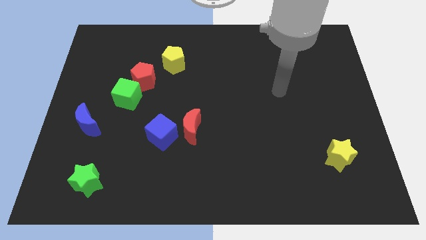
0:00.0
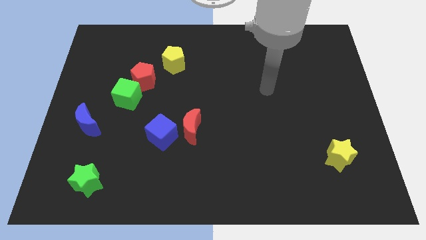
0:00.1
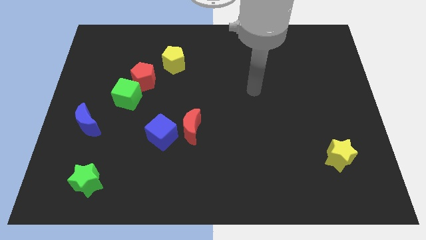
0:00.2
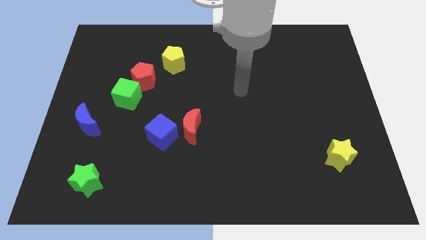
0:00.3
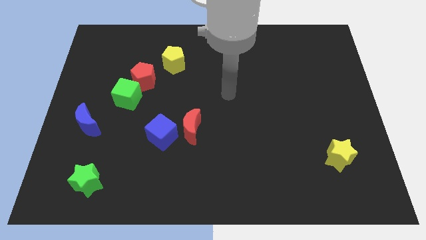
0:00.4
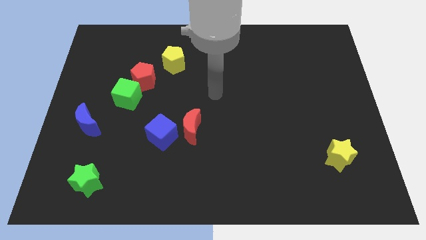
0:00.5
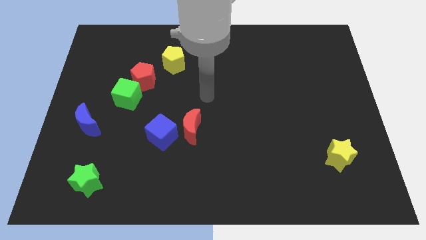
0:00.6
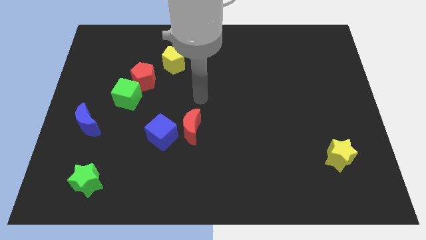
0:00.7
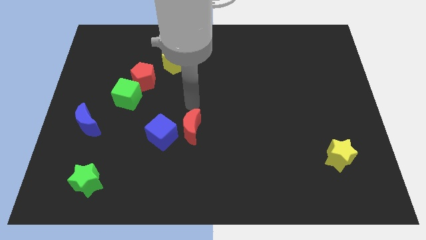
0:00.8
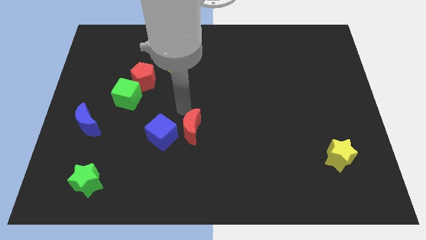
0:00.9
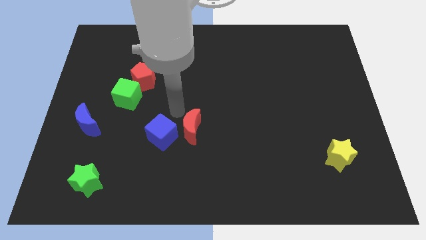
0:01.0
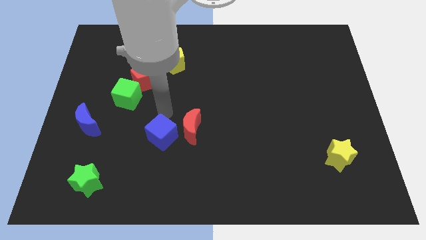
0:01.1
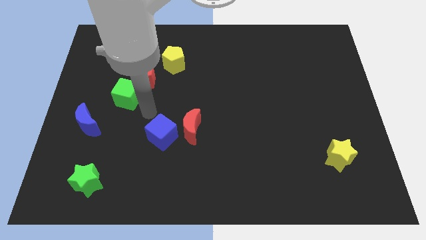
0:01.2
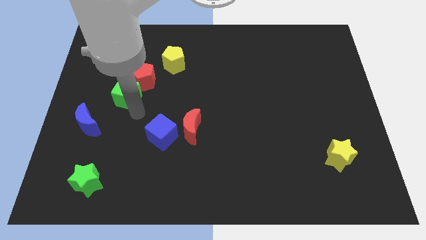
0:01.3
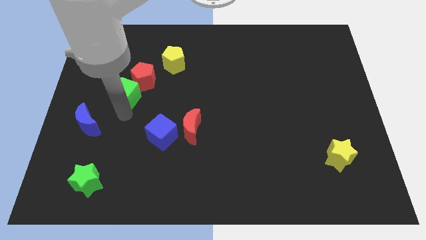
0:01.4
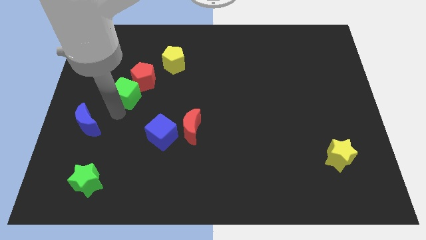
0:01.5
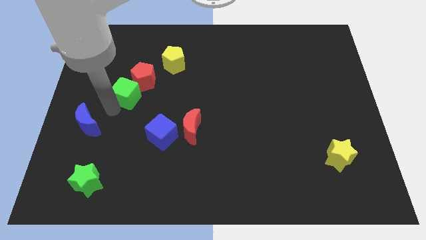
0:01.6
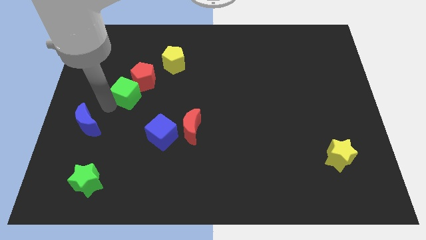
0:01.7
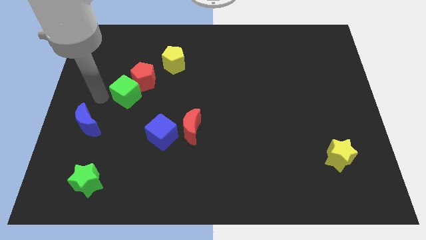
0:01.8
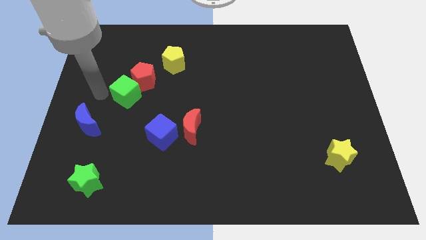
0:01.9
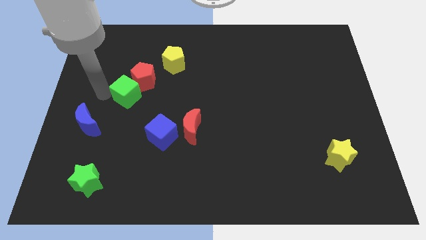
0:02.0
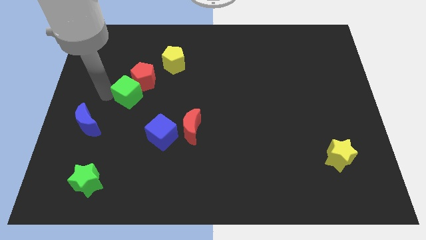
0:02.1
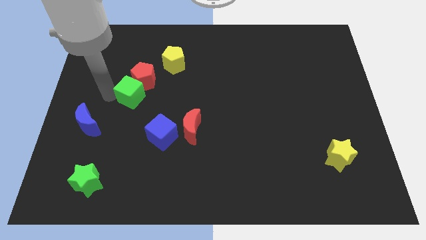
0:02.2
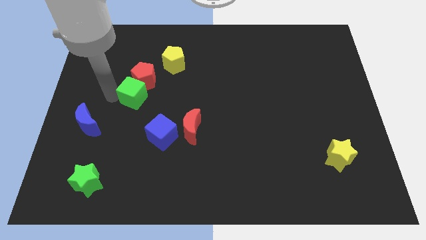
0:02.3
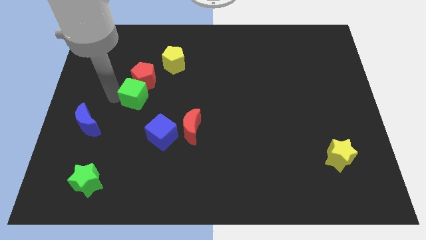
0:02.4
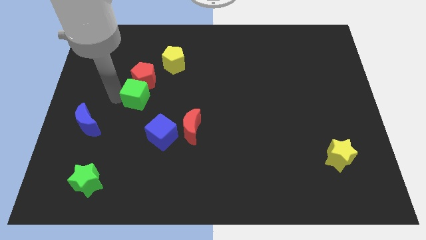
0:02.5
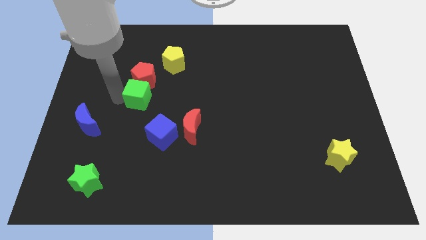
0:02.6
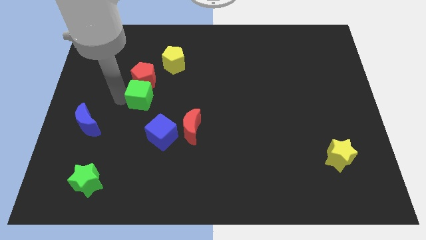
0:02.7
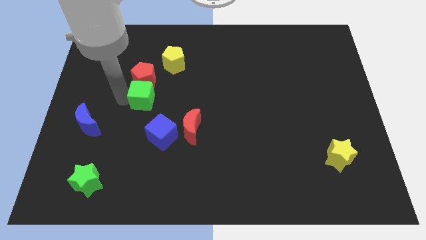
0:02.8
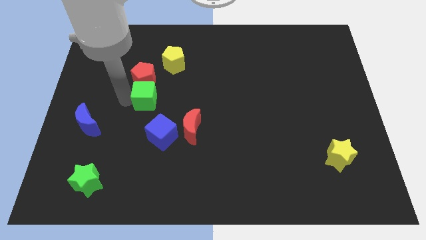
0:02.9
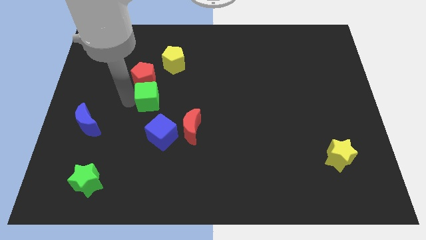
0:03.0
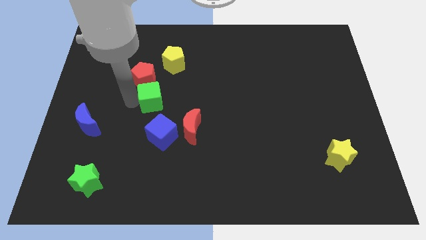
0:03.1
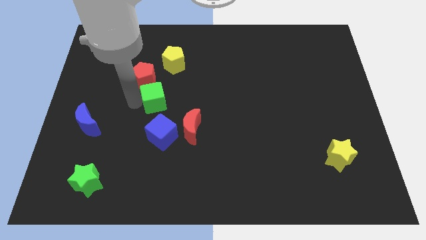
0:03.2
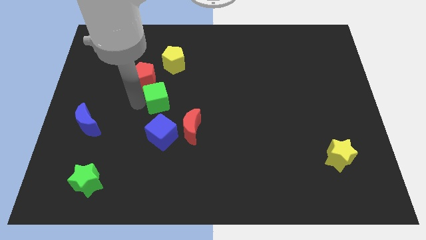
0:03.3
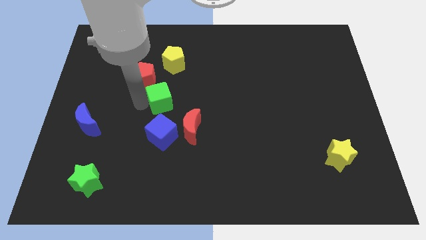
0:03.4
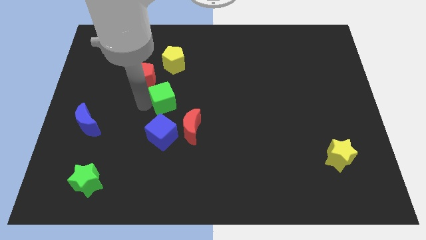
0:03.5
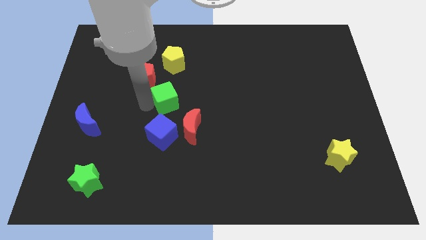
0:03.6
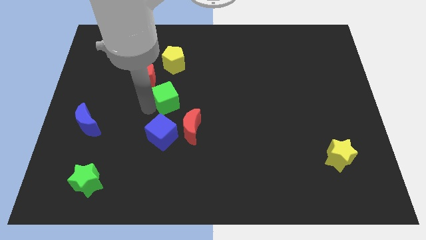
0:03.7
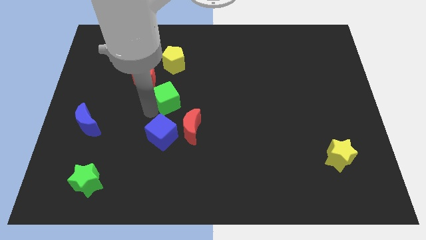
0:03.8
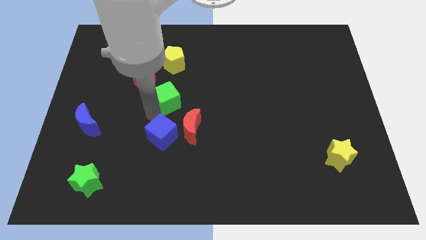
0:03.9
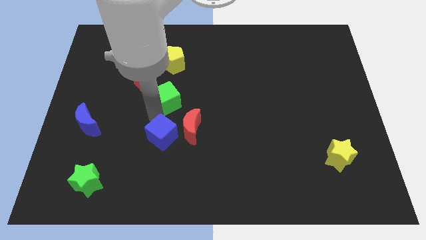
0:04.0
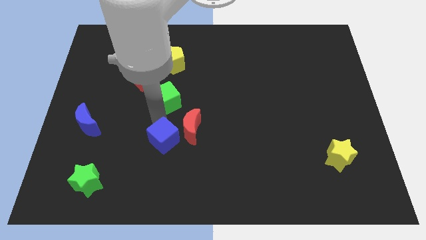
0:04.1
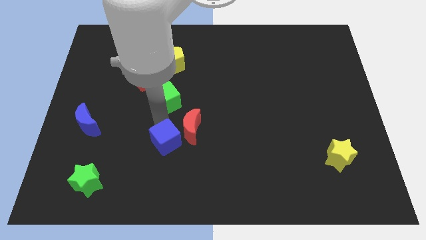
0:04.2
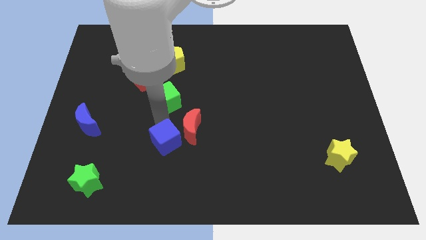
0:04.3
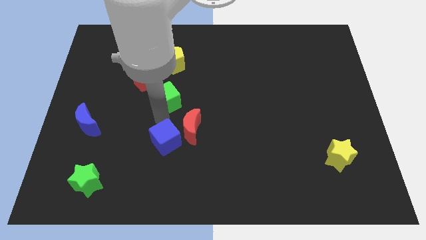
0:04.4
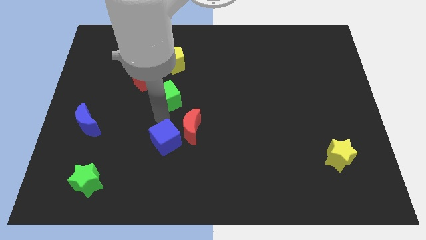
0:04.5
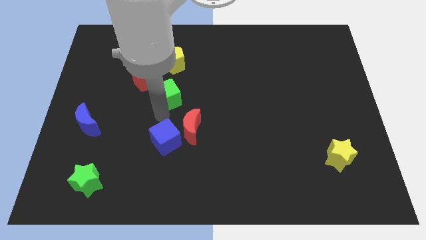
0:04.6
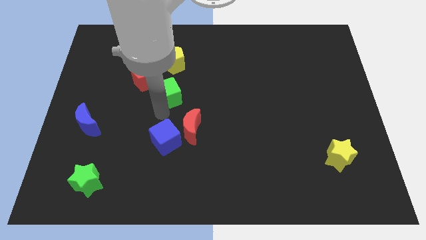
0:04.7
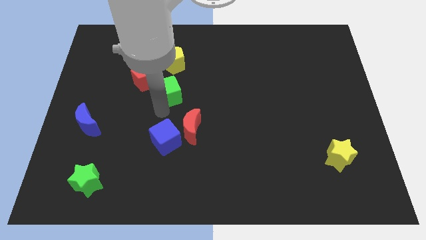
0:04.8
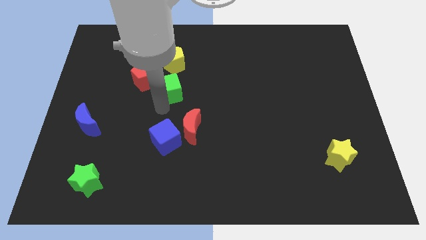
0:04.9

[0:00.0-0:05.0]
slightly push the green cube up and then right

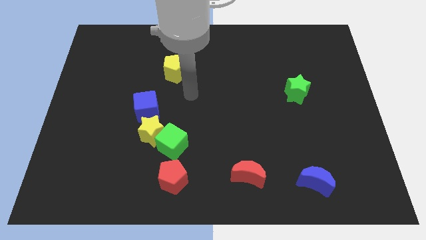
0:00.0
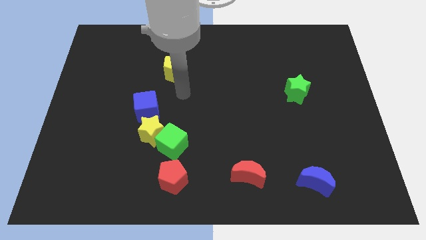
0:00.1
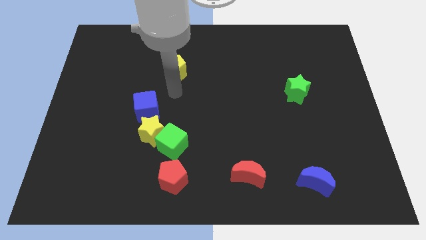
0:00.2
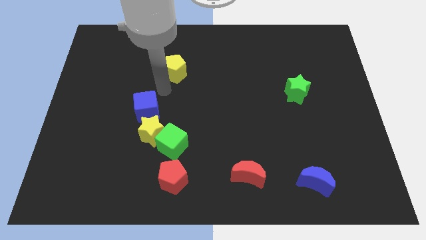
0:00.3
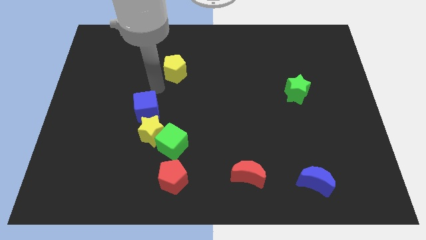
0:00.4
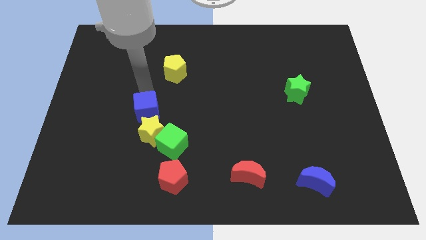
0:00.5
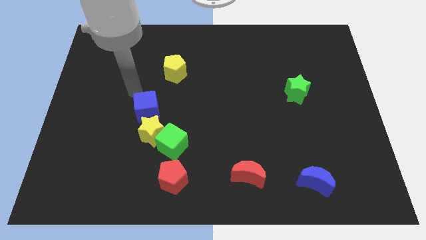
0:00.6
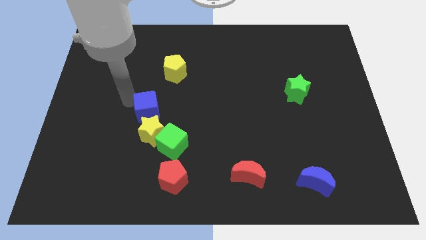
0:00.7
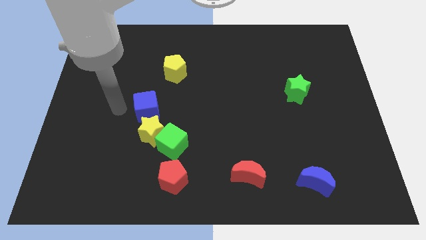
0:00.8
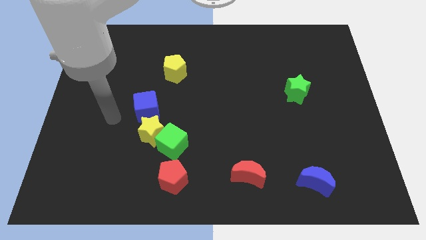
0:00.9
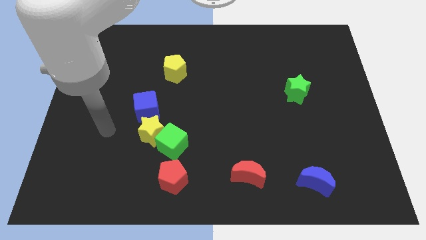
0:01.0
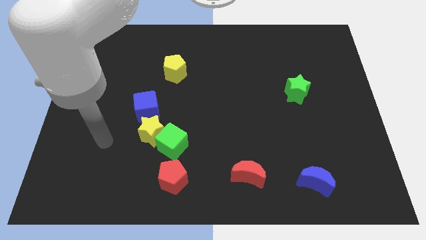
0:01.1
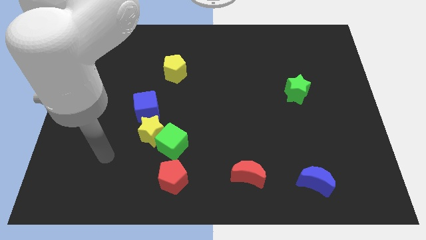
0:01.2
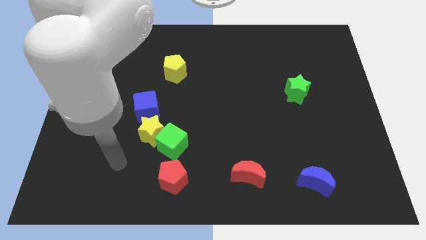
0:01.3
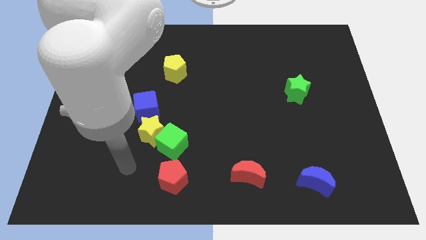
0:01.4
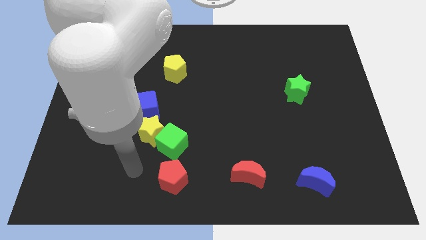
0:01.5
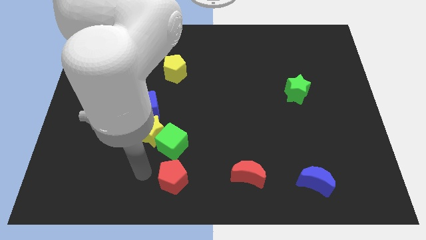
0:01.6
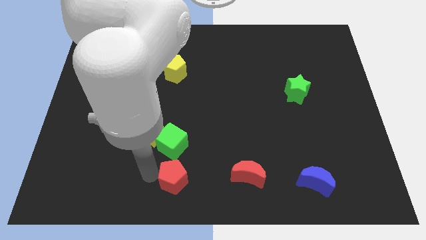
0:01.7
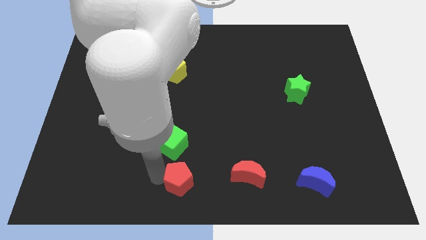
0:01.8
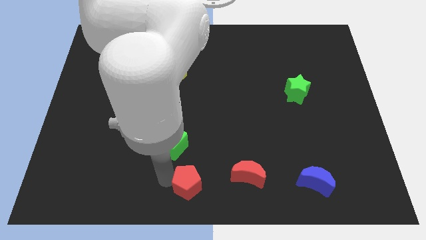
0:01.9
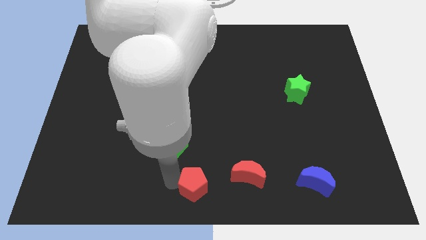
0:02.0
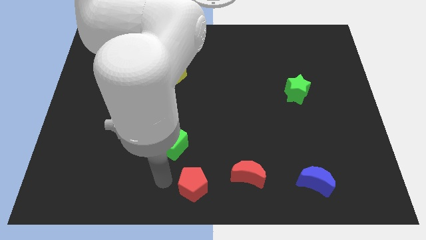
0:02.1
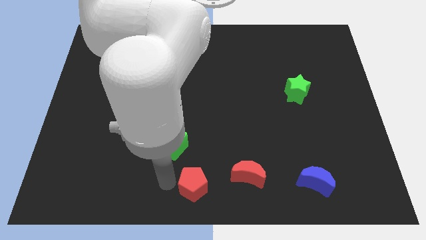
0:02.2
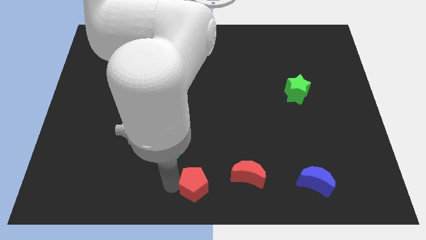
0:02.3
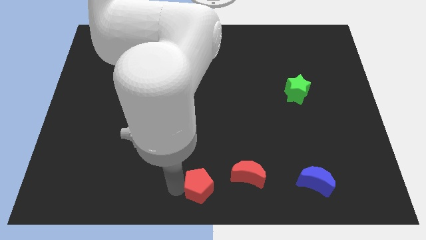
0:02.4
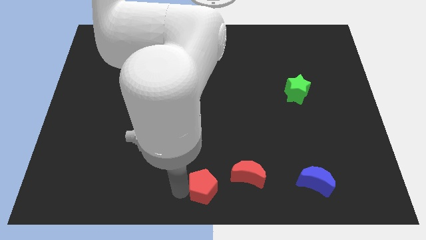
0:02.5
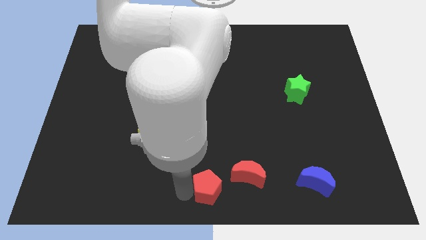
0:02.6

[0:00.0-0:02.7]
move the red pentagon somewhat right
